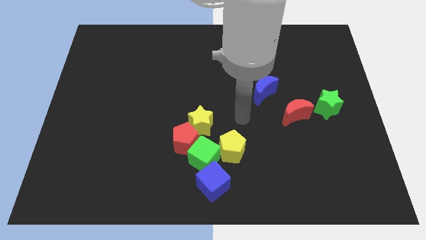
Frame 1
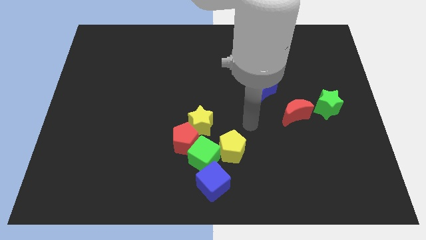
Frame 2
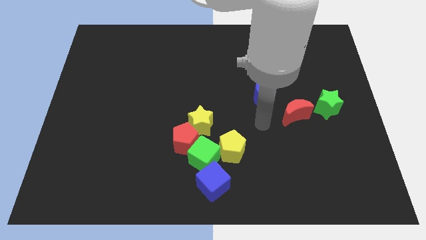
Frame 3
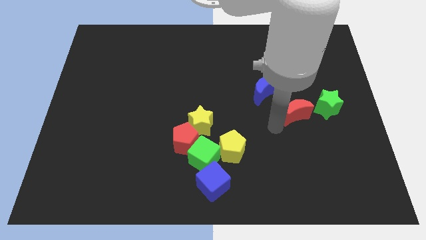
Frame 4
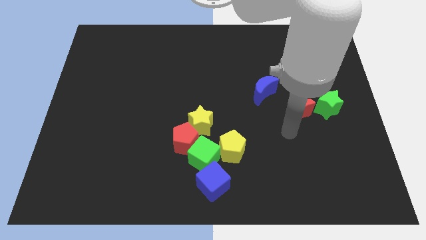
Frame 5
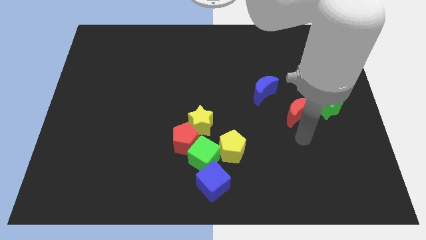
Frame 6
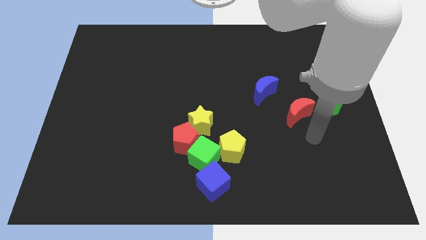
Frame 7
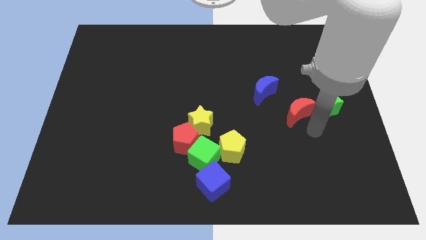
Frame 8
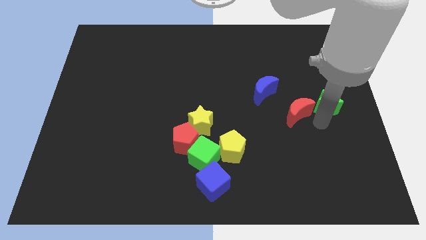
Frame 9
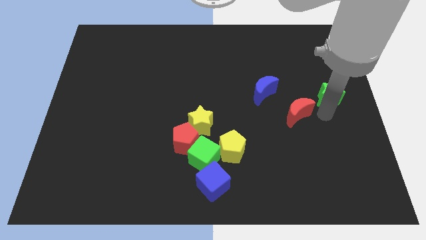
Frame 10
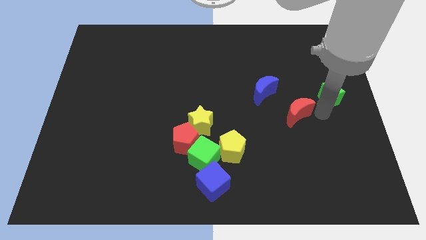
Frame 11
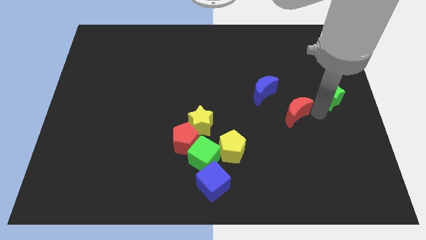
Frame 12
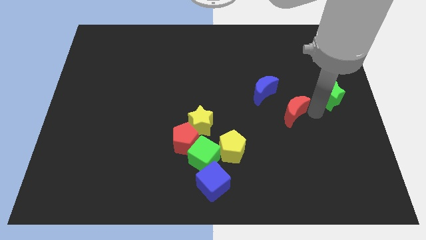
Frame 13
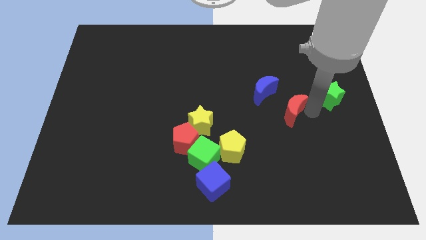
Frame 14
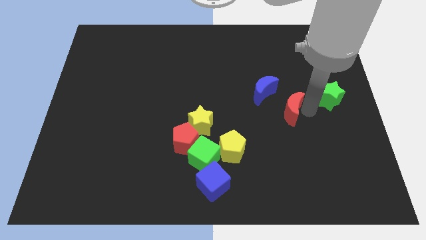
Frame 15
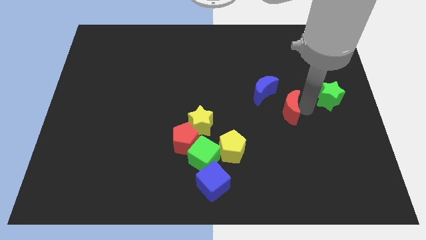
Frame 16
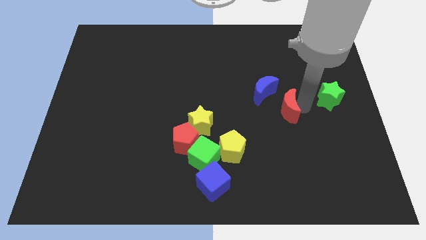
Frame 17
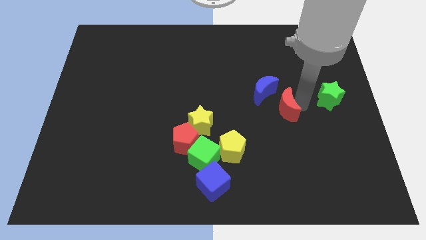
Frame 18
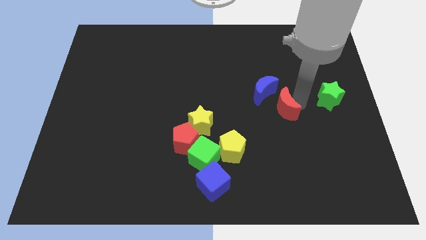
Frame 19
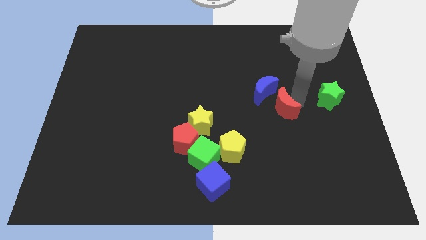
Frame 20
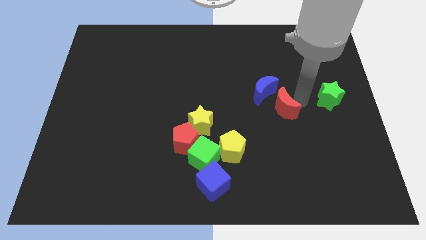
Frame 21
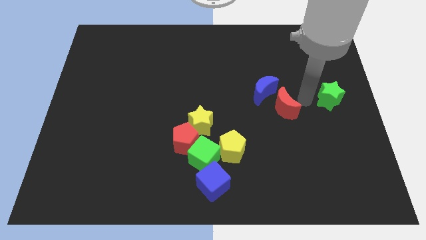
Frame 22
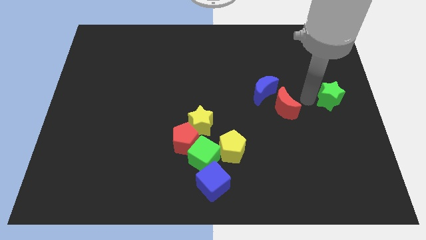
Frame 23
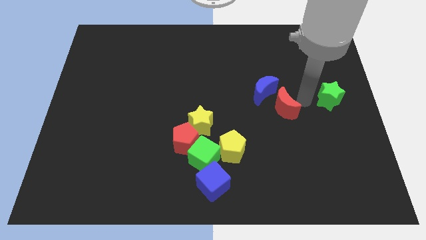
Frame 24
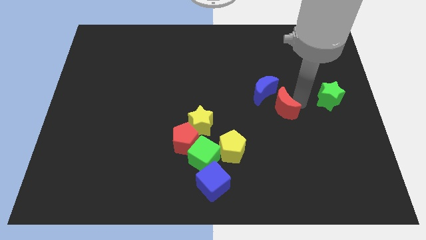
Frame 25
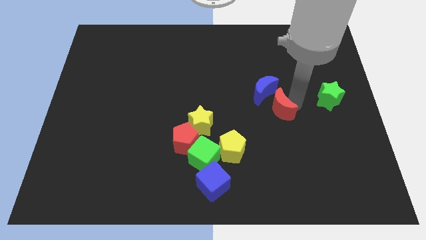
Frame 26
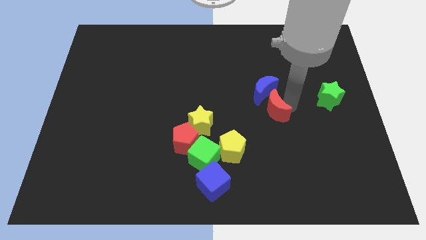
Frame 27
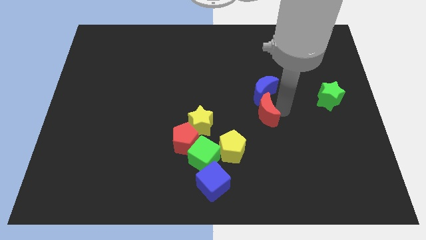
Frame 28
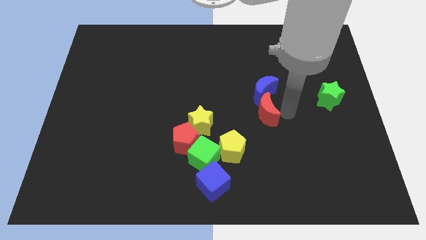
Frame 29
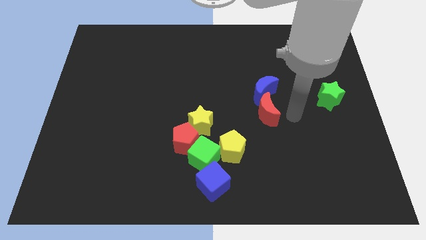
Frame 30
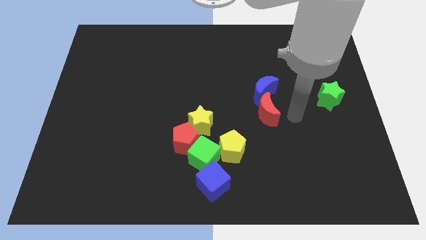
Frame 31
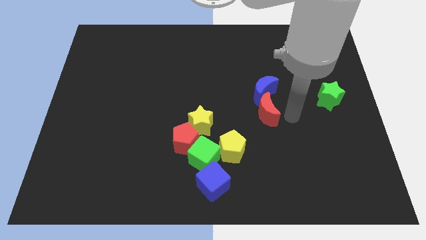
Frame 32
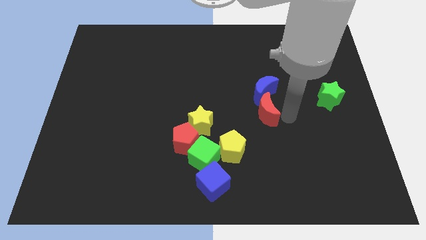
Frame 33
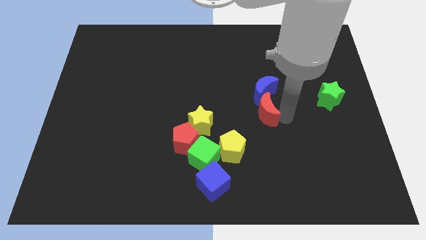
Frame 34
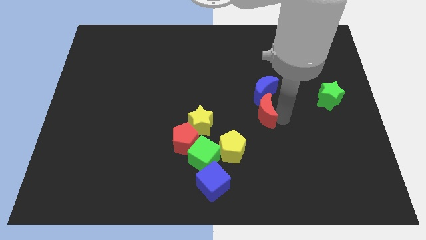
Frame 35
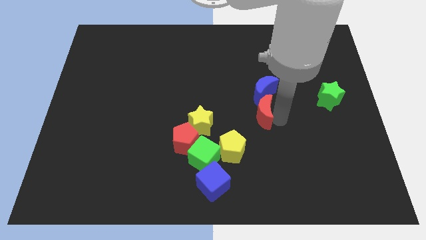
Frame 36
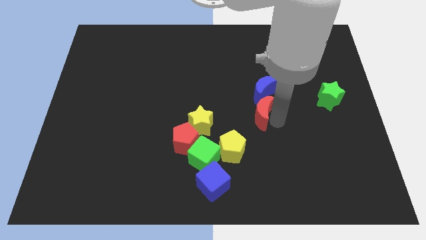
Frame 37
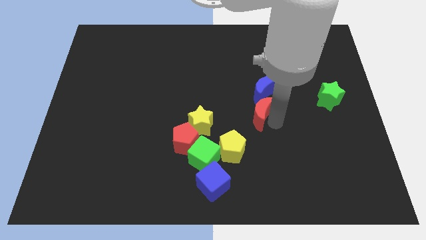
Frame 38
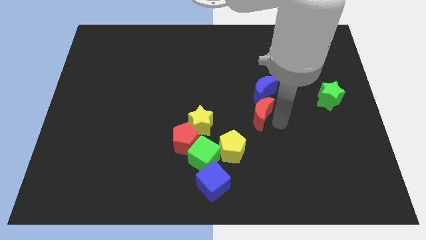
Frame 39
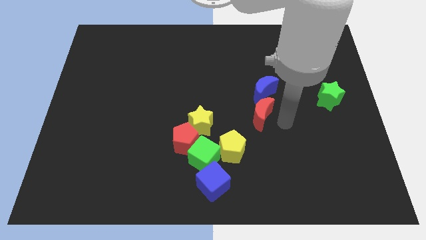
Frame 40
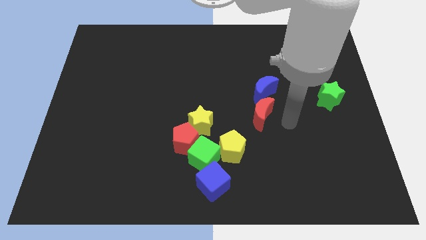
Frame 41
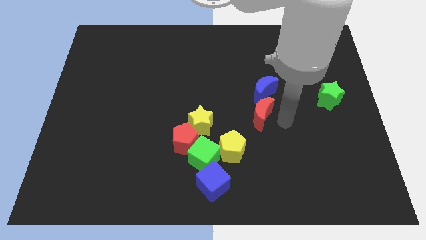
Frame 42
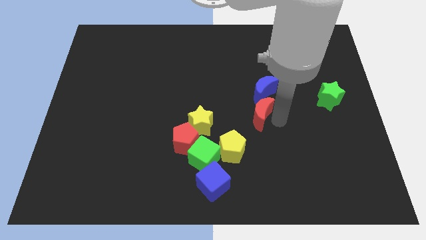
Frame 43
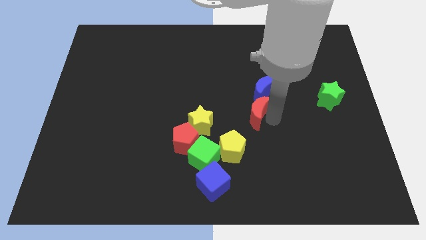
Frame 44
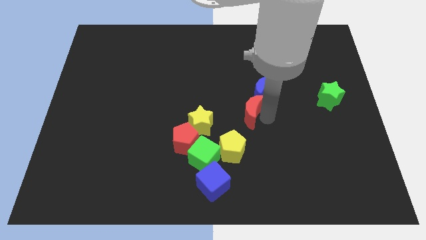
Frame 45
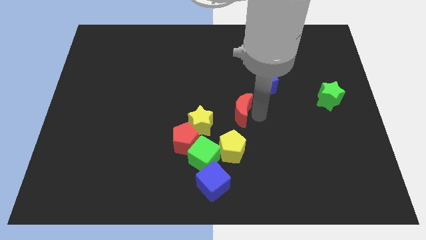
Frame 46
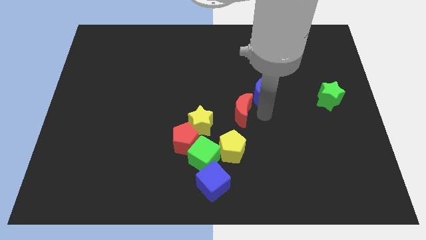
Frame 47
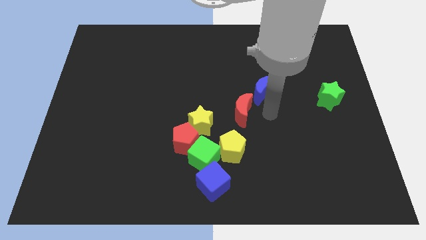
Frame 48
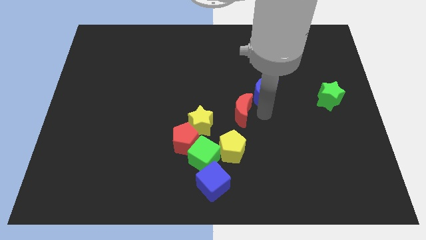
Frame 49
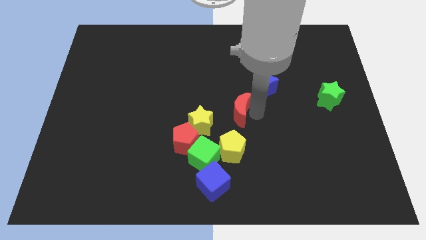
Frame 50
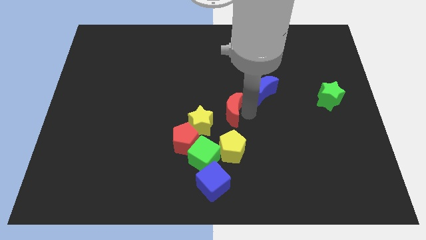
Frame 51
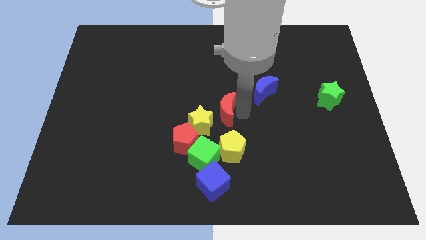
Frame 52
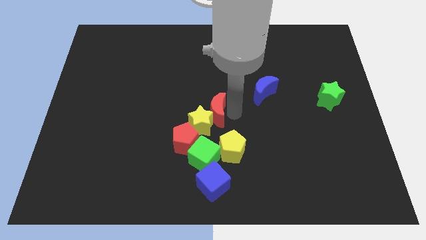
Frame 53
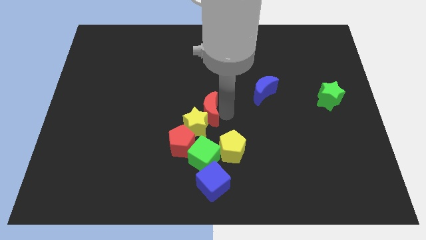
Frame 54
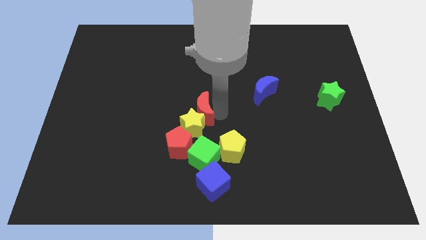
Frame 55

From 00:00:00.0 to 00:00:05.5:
push the red moon to the left

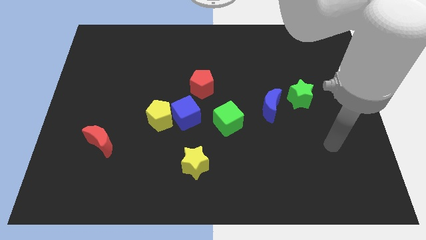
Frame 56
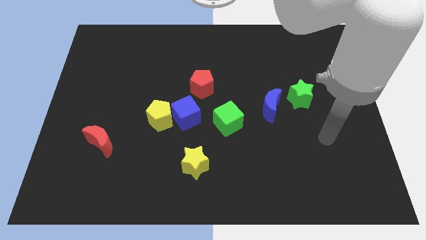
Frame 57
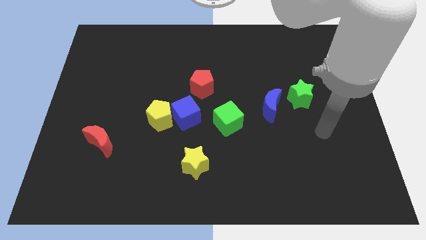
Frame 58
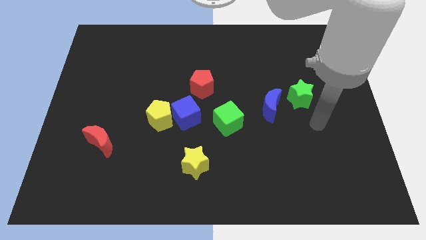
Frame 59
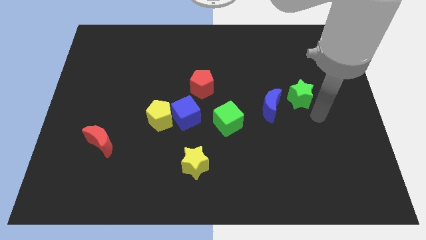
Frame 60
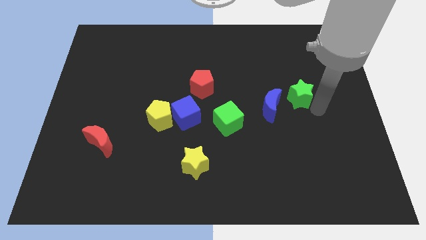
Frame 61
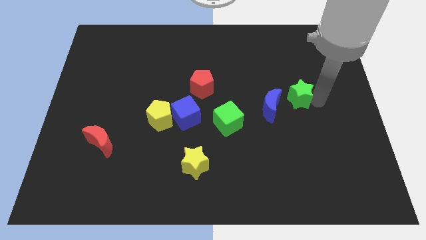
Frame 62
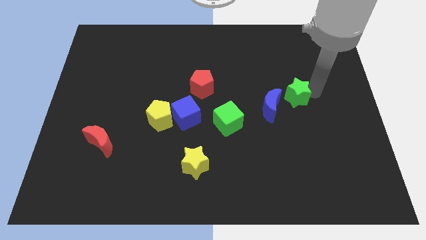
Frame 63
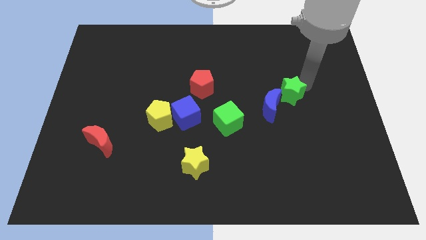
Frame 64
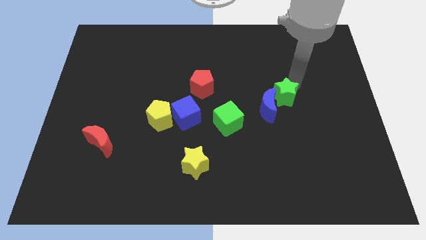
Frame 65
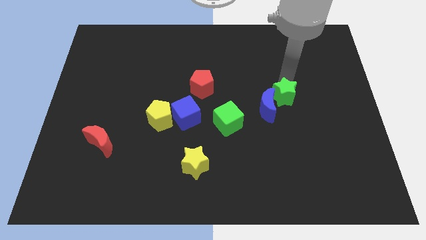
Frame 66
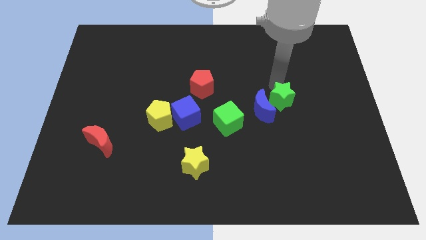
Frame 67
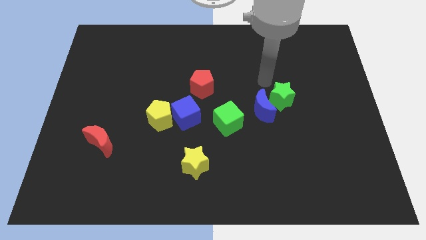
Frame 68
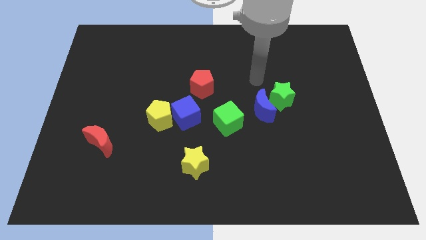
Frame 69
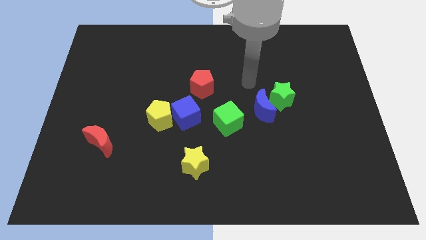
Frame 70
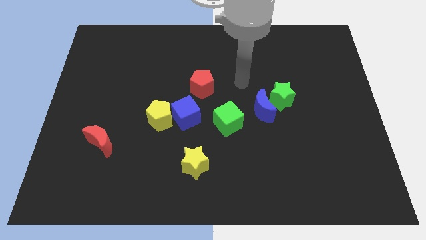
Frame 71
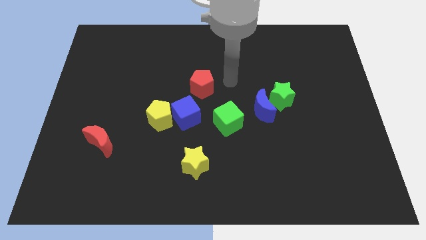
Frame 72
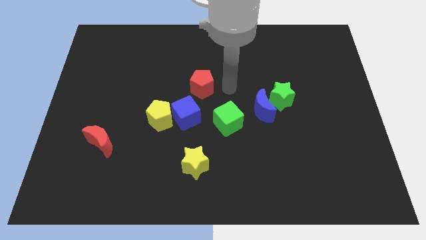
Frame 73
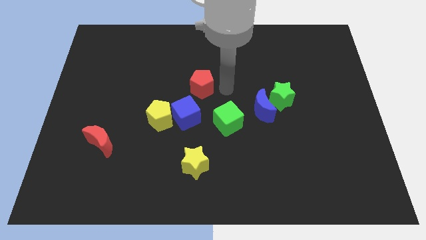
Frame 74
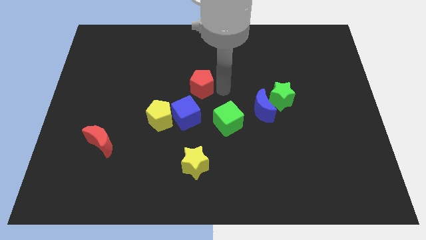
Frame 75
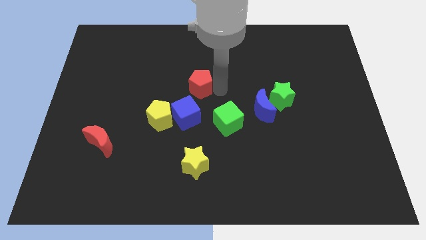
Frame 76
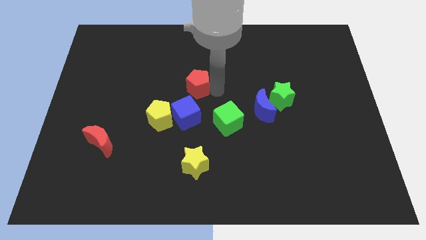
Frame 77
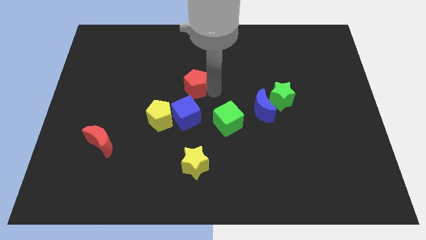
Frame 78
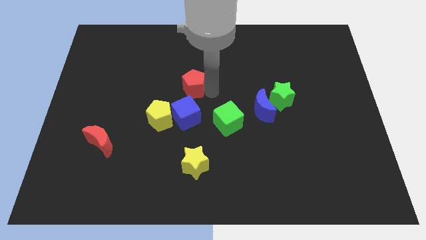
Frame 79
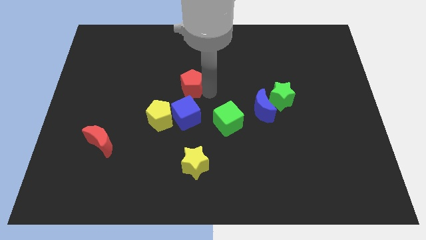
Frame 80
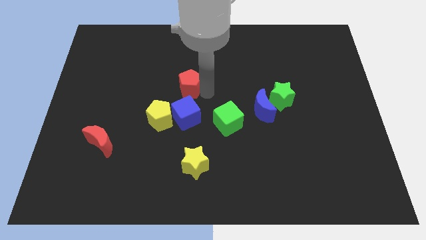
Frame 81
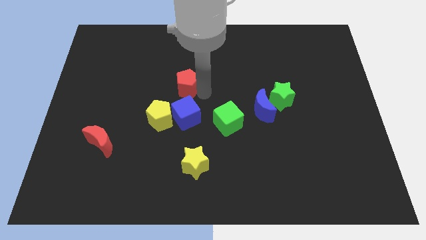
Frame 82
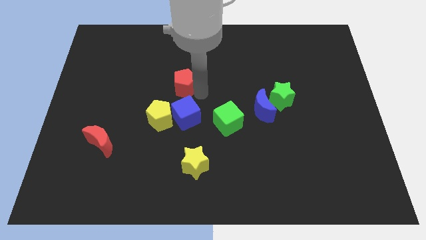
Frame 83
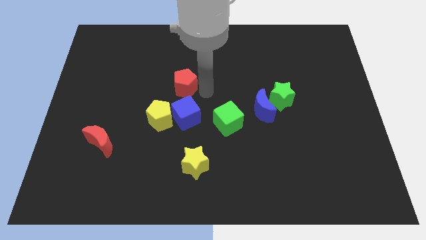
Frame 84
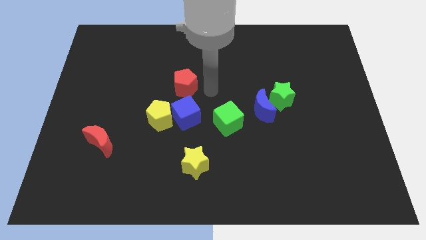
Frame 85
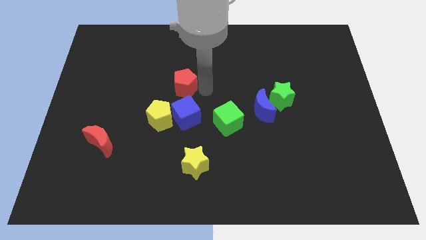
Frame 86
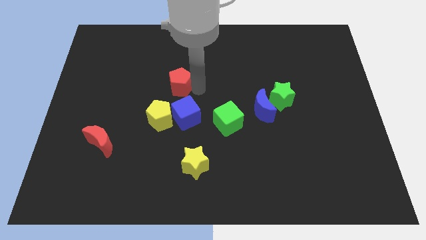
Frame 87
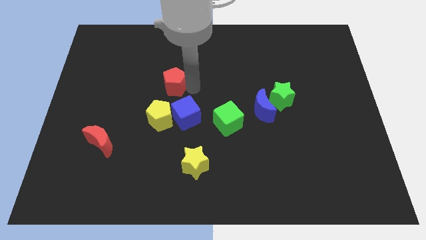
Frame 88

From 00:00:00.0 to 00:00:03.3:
slightly push the red pentagon to the left
